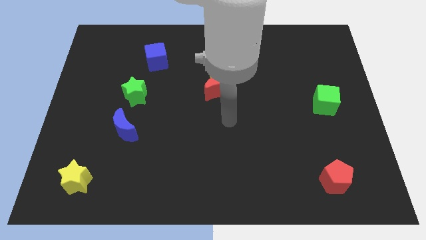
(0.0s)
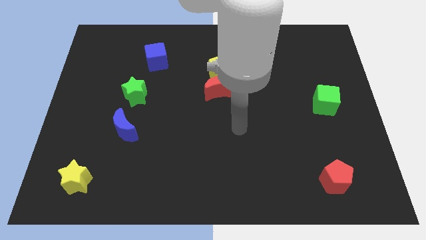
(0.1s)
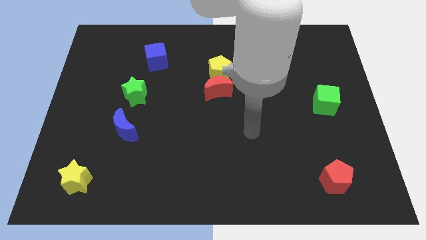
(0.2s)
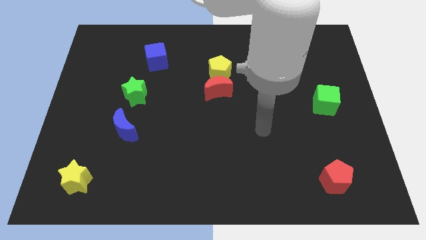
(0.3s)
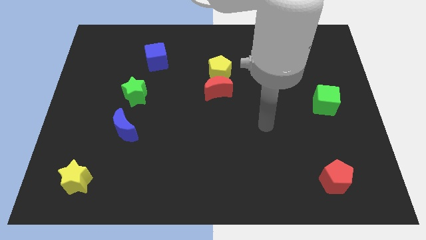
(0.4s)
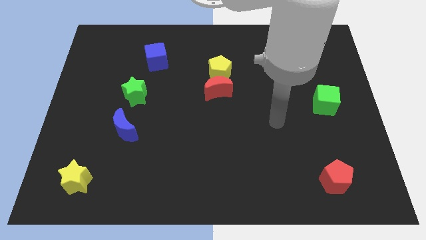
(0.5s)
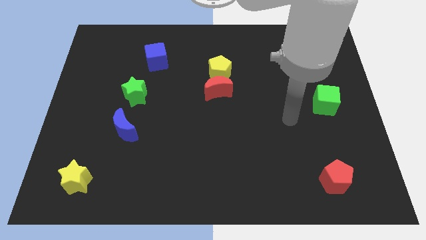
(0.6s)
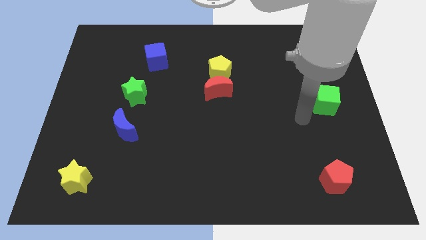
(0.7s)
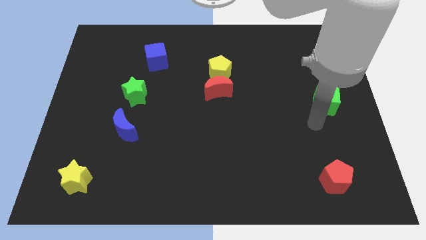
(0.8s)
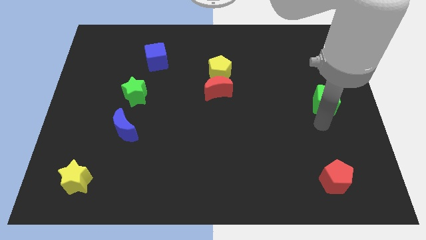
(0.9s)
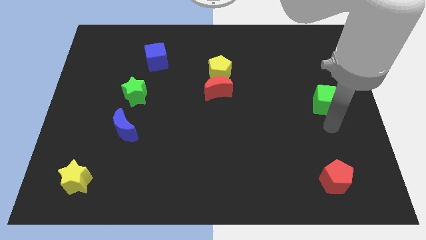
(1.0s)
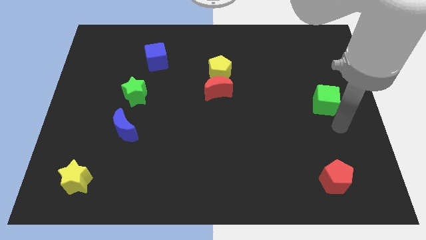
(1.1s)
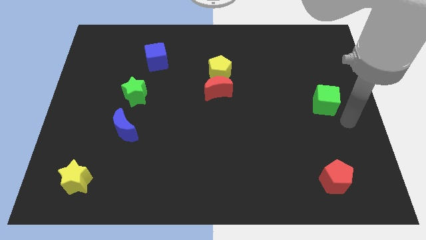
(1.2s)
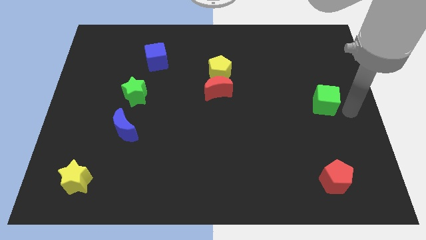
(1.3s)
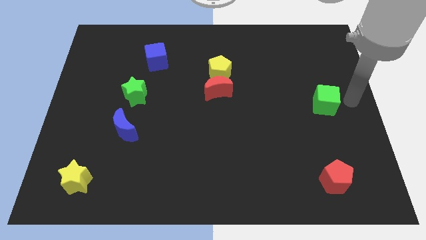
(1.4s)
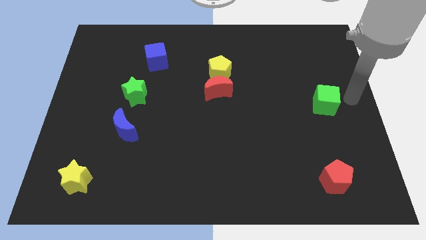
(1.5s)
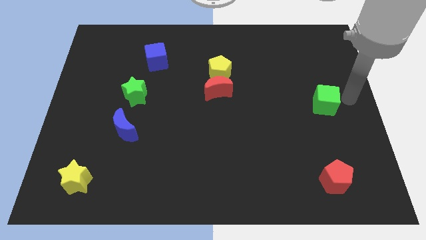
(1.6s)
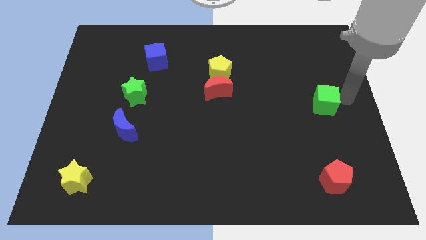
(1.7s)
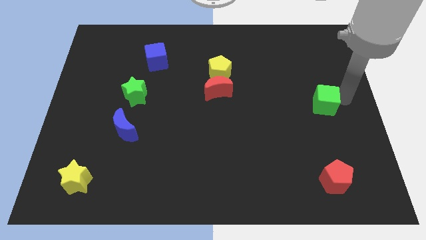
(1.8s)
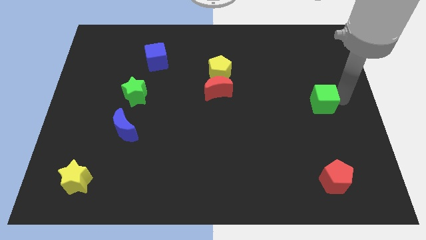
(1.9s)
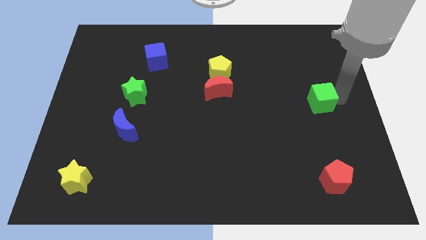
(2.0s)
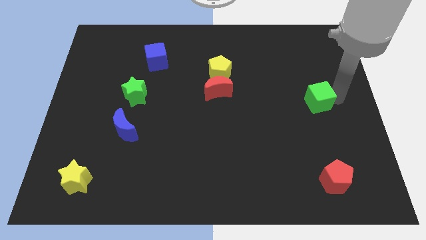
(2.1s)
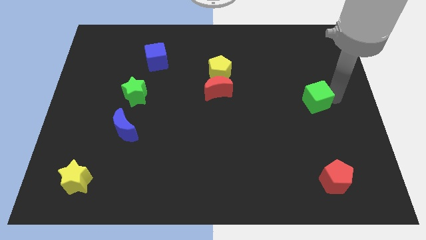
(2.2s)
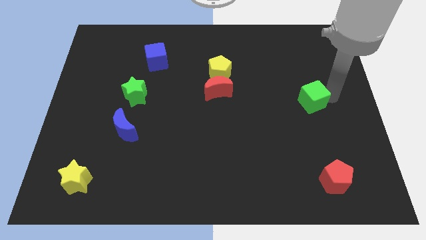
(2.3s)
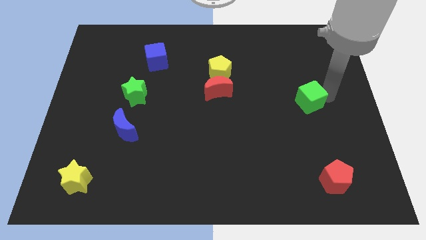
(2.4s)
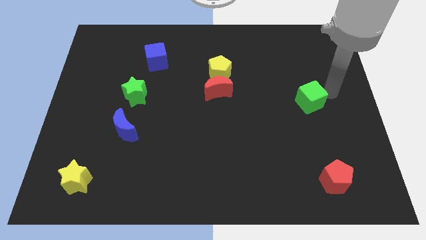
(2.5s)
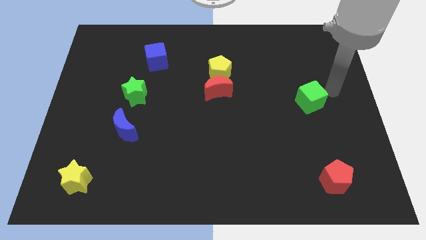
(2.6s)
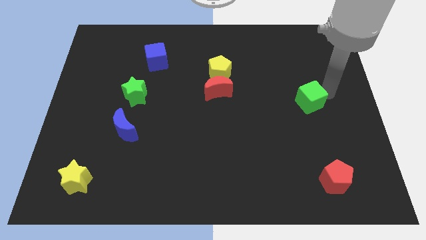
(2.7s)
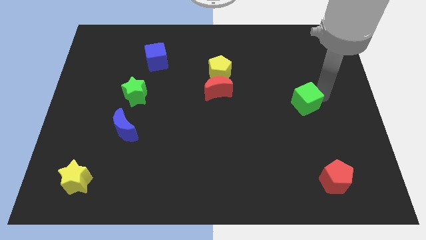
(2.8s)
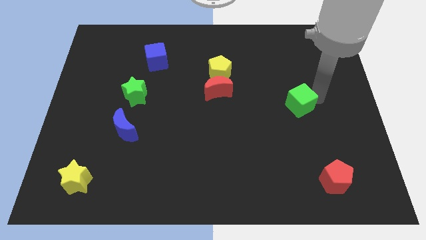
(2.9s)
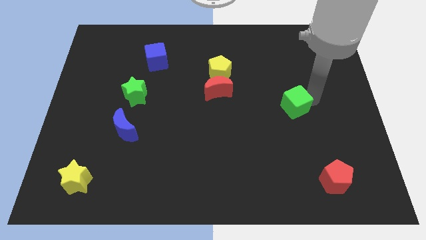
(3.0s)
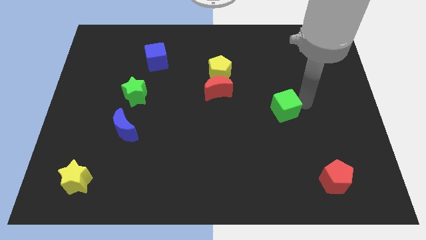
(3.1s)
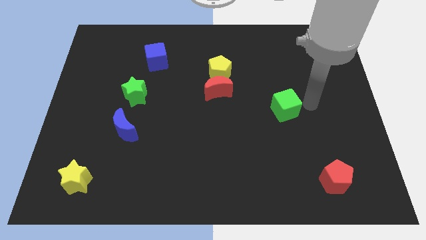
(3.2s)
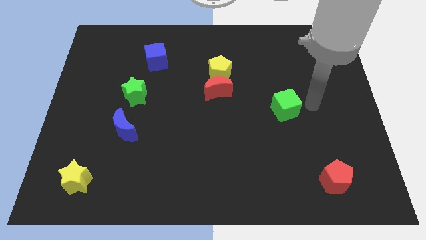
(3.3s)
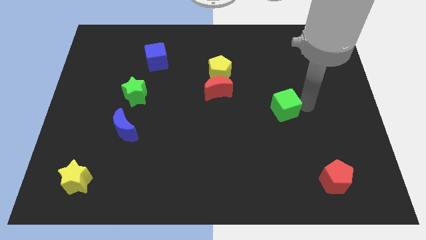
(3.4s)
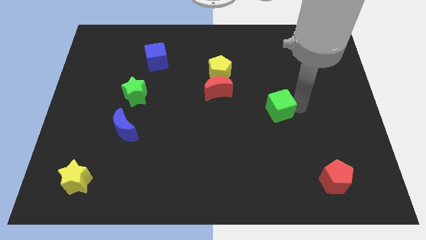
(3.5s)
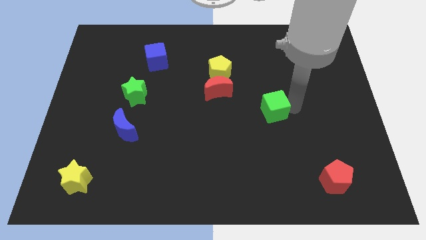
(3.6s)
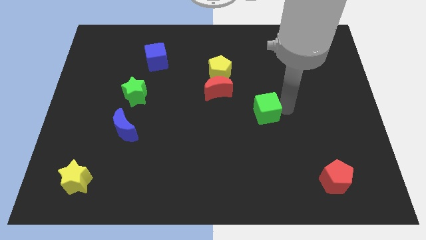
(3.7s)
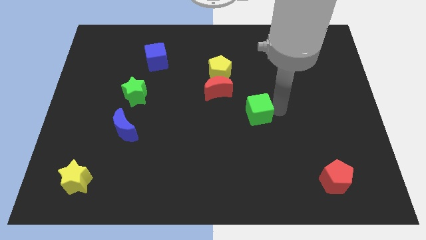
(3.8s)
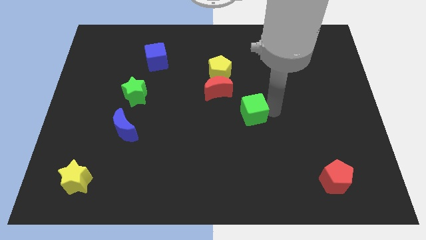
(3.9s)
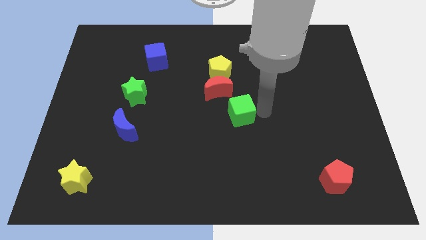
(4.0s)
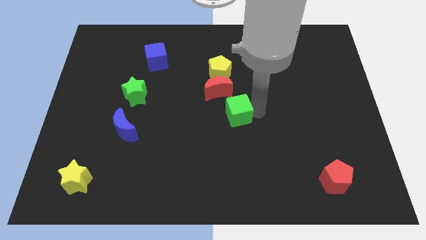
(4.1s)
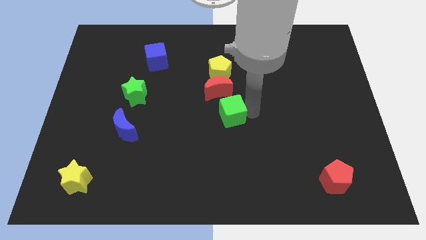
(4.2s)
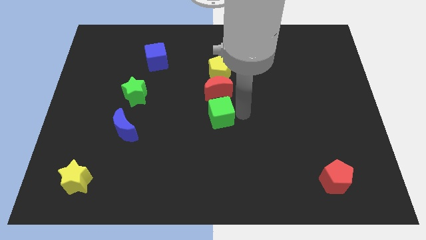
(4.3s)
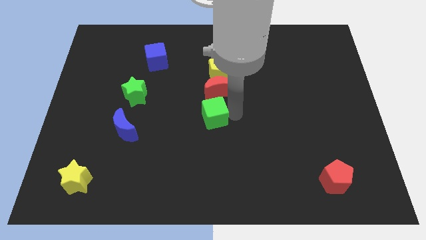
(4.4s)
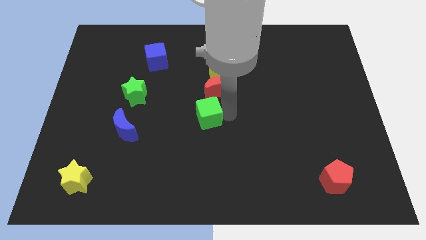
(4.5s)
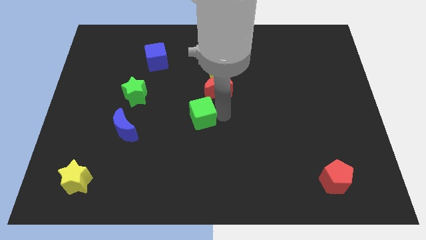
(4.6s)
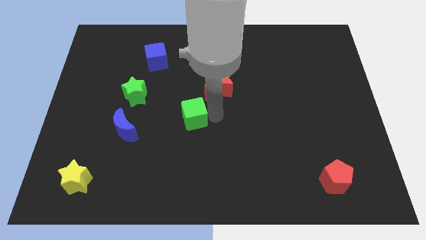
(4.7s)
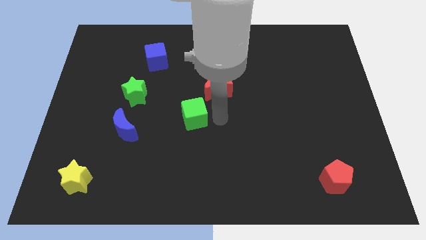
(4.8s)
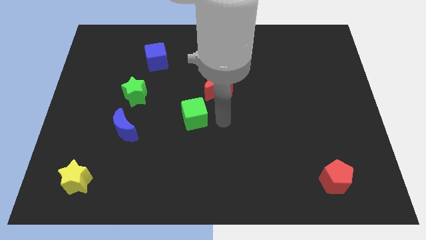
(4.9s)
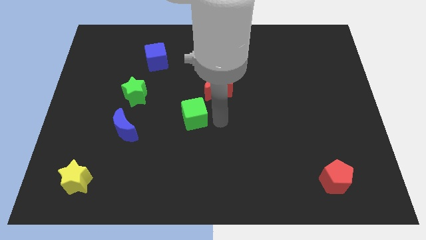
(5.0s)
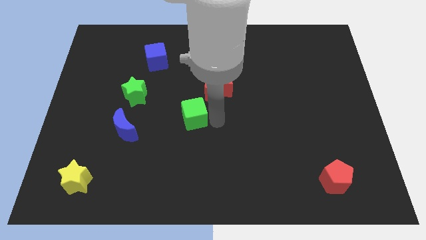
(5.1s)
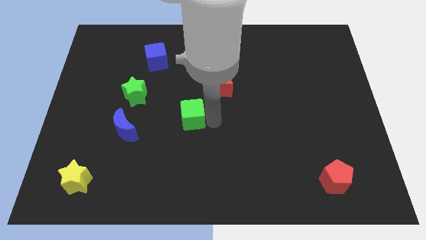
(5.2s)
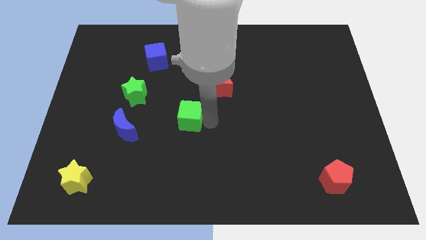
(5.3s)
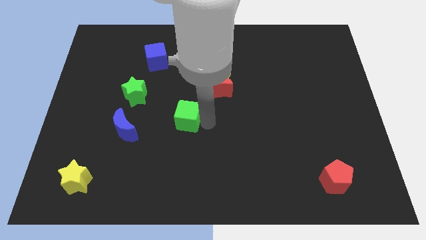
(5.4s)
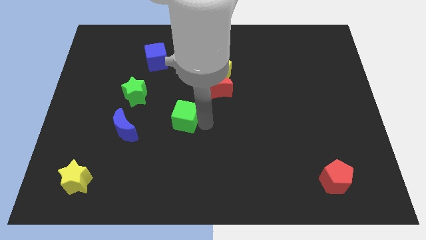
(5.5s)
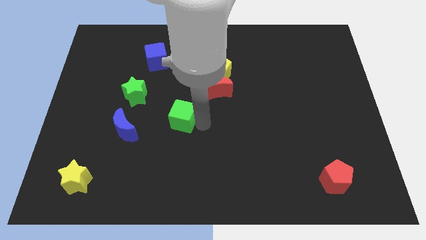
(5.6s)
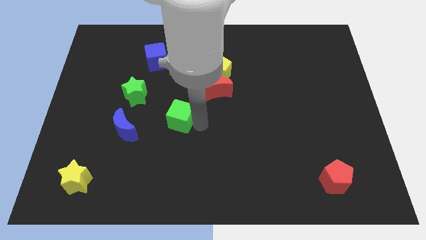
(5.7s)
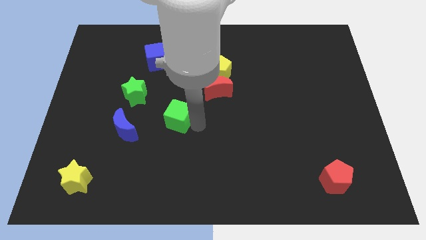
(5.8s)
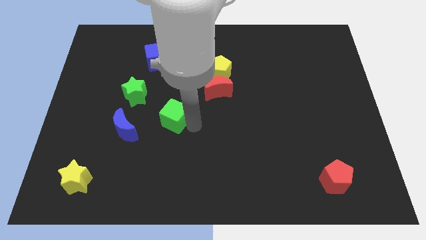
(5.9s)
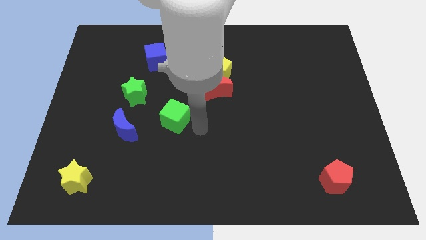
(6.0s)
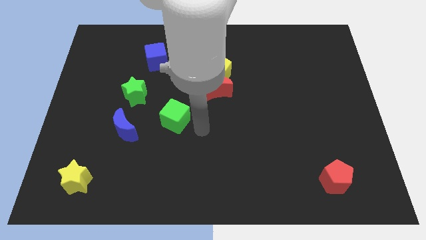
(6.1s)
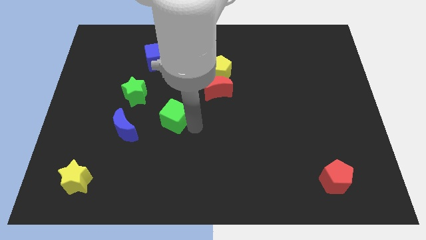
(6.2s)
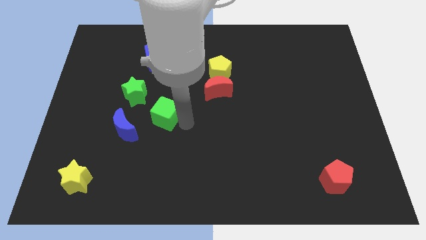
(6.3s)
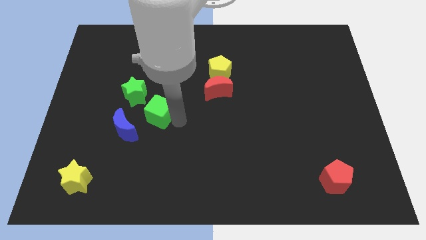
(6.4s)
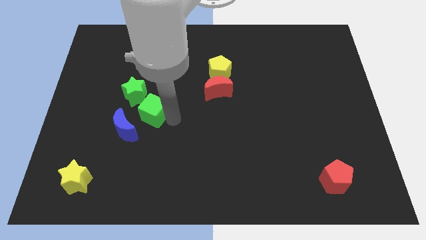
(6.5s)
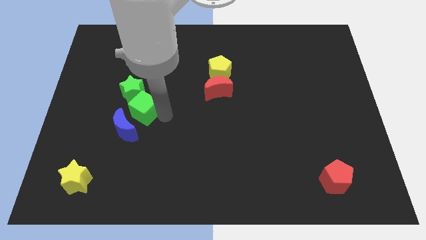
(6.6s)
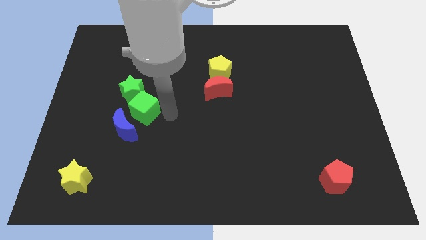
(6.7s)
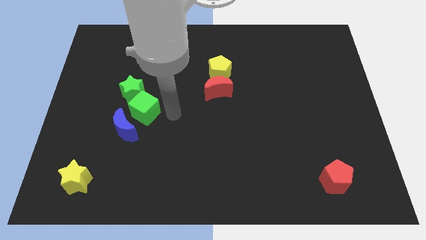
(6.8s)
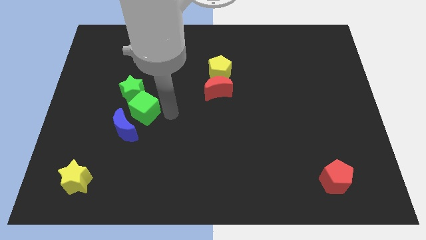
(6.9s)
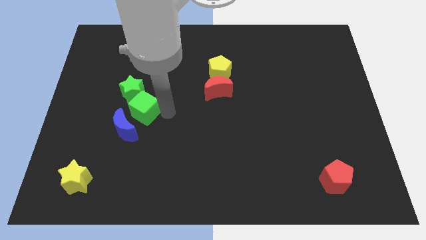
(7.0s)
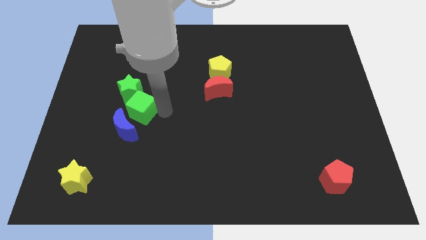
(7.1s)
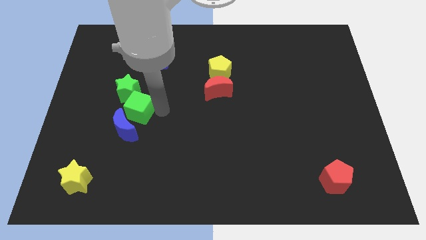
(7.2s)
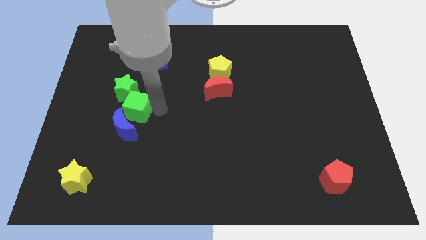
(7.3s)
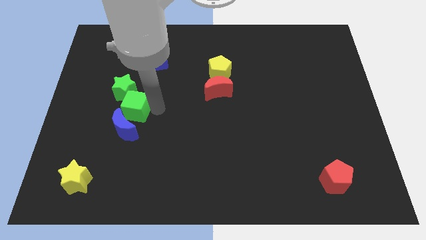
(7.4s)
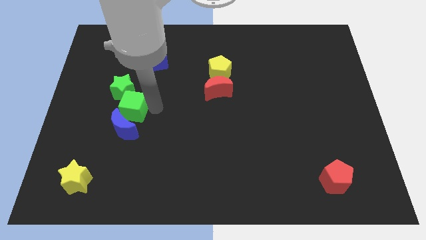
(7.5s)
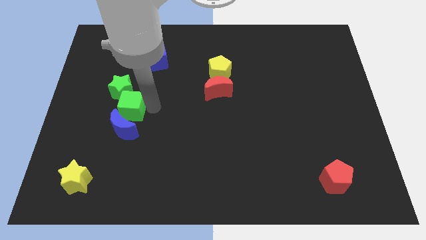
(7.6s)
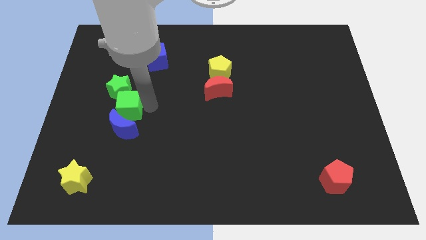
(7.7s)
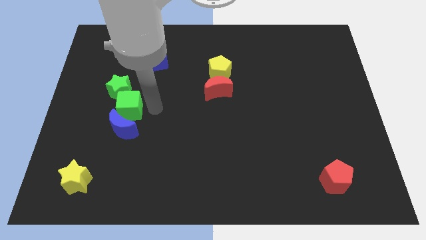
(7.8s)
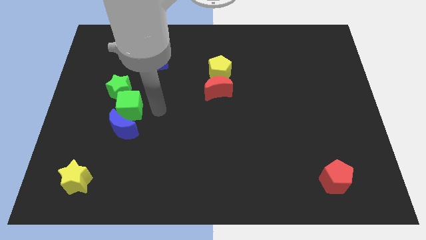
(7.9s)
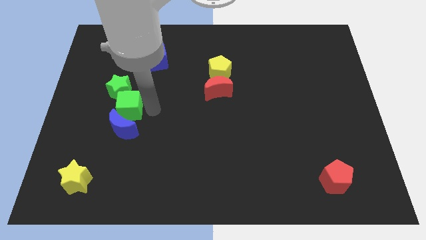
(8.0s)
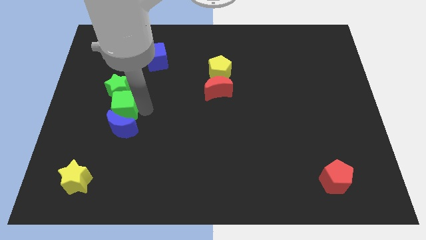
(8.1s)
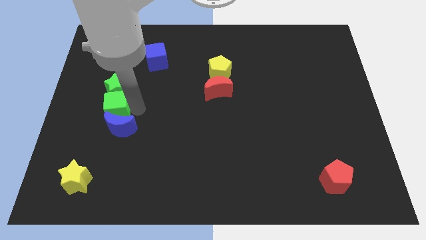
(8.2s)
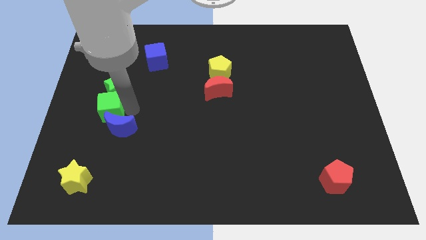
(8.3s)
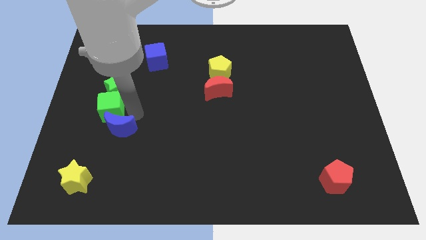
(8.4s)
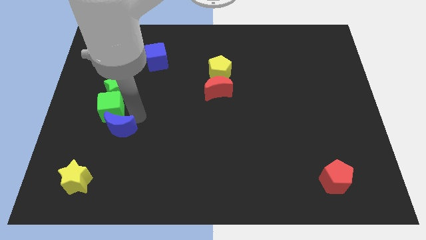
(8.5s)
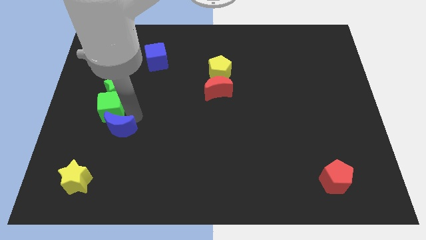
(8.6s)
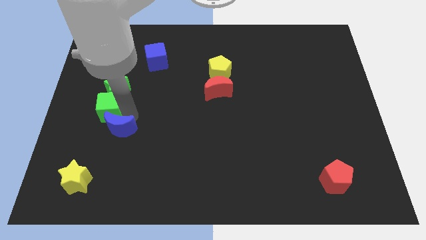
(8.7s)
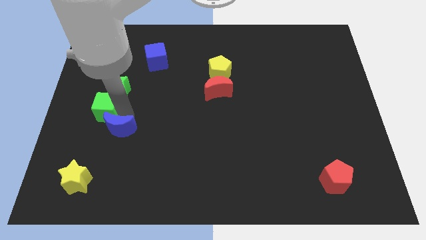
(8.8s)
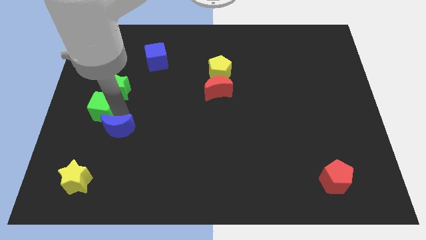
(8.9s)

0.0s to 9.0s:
push the green cube to the center left
